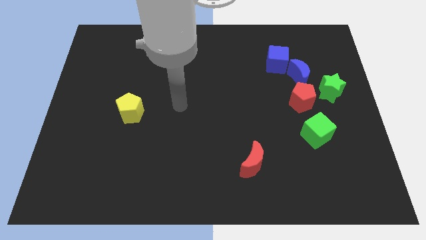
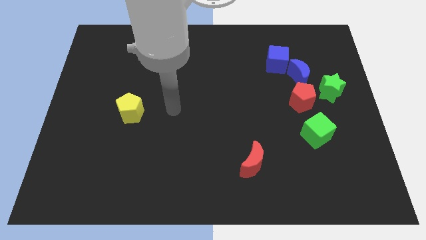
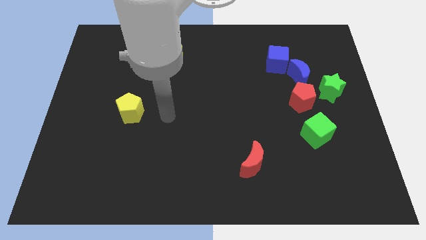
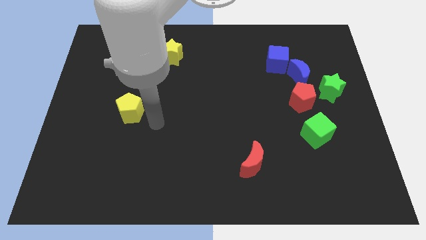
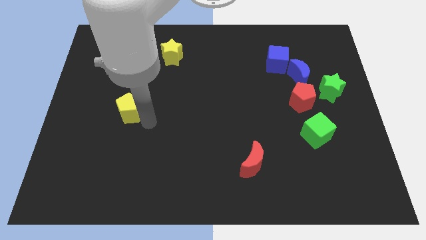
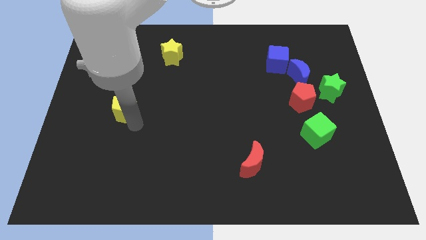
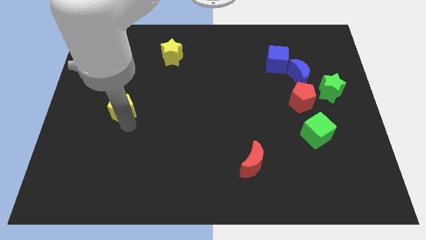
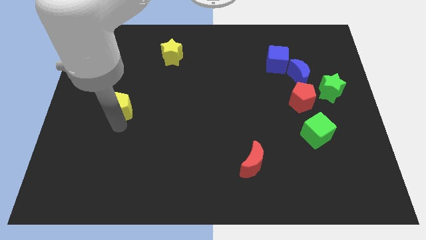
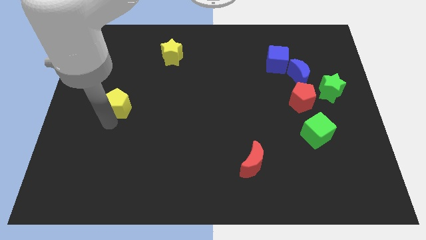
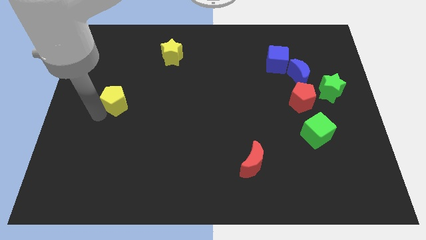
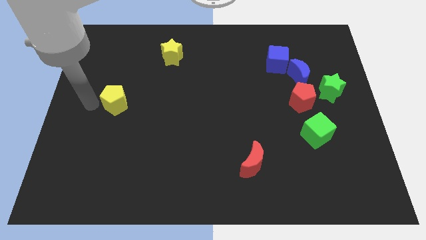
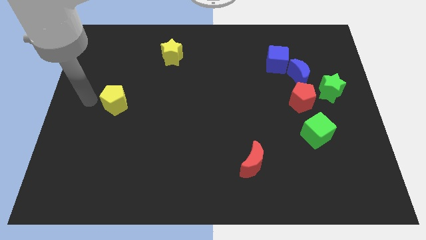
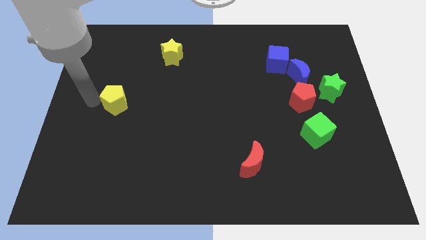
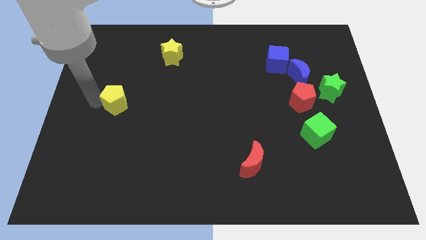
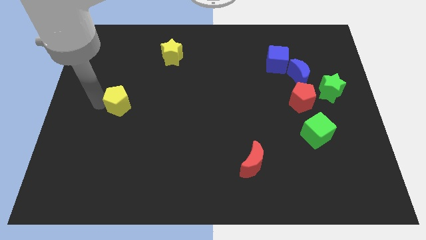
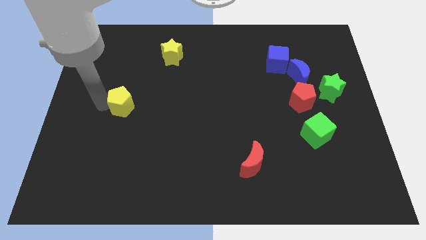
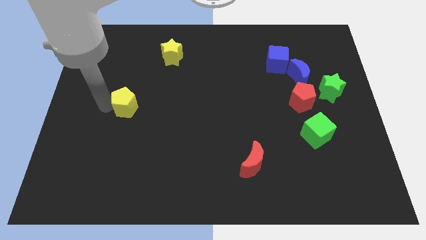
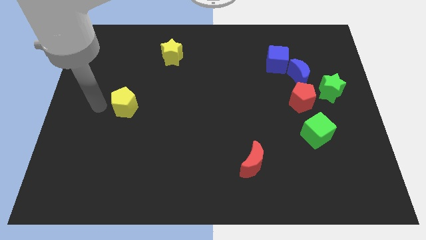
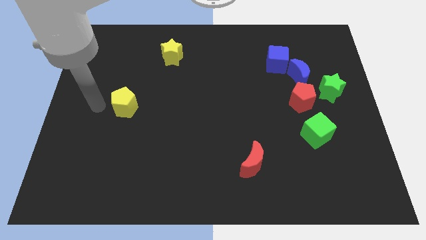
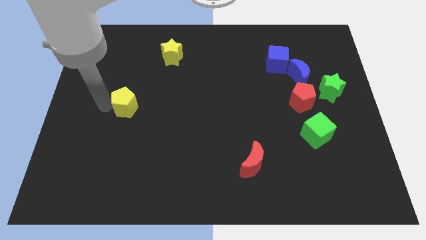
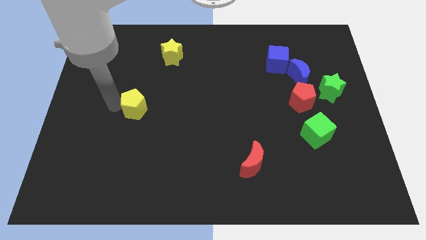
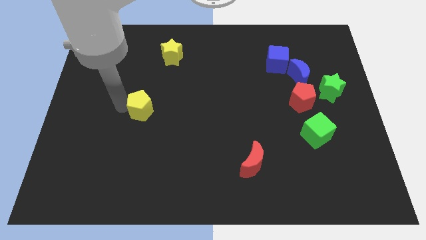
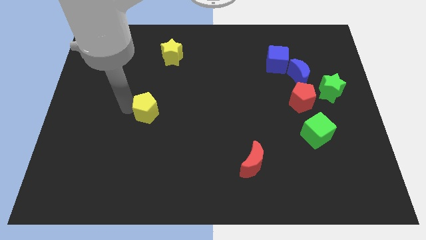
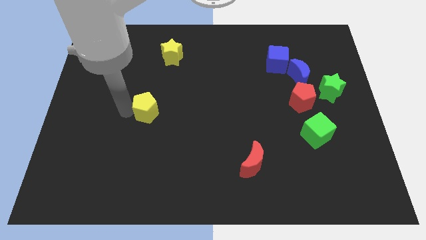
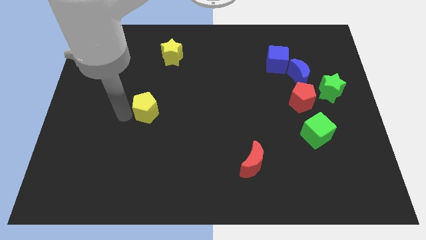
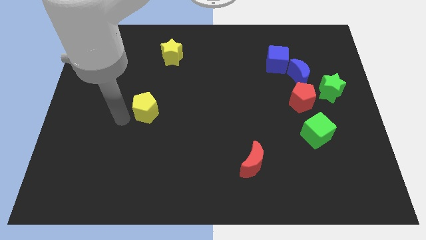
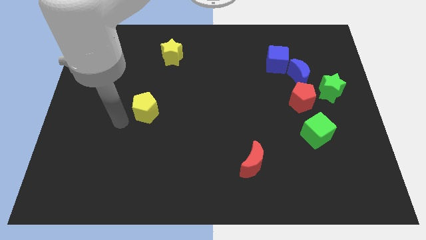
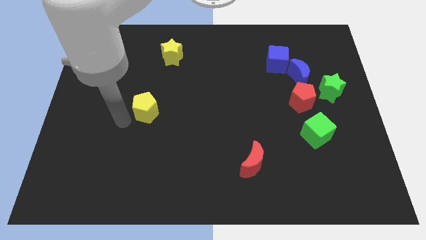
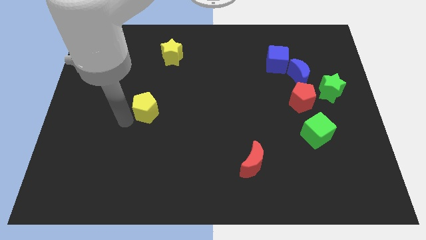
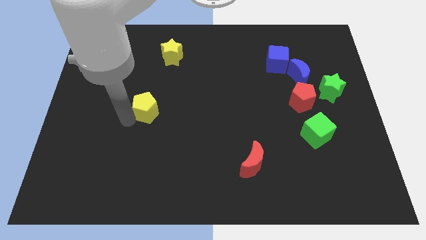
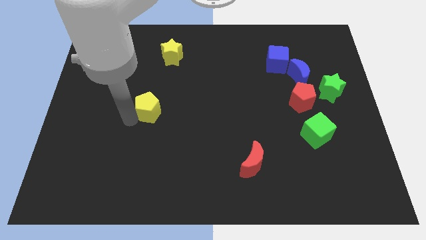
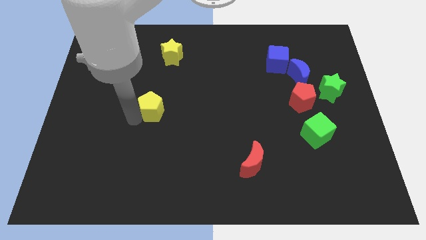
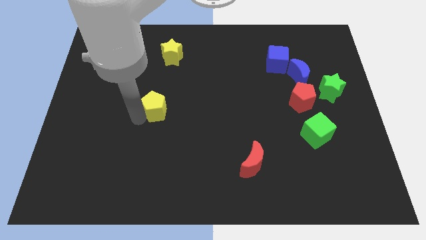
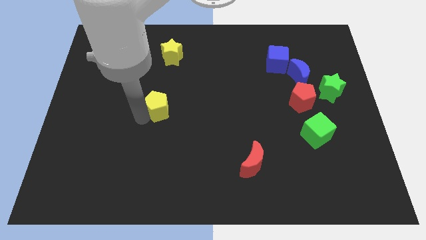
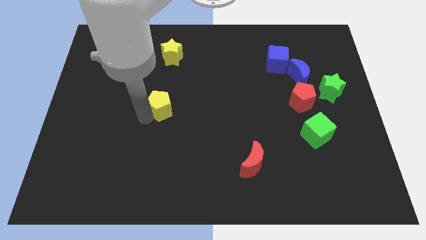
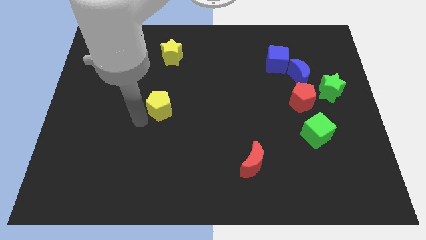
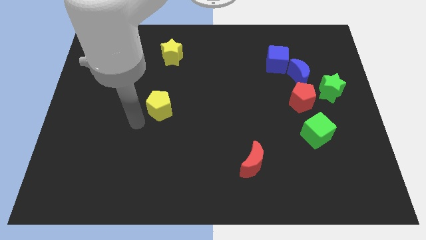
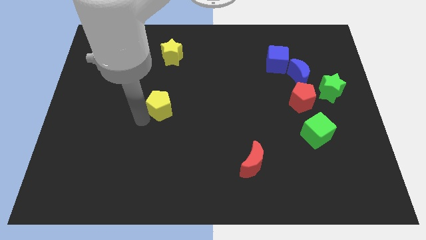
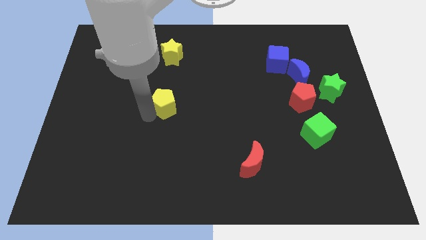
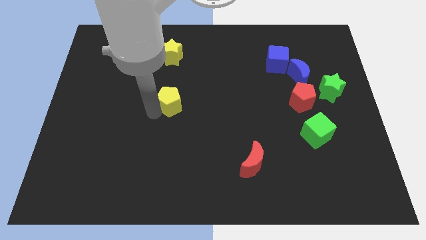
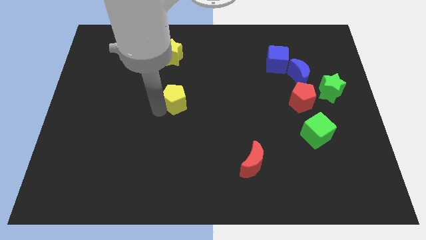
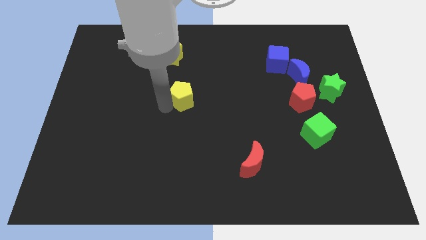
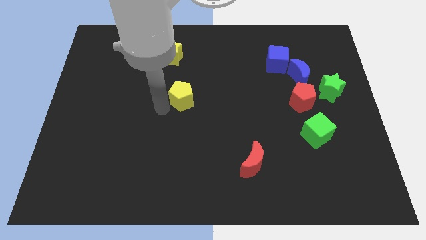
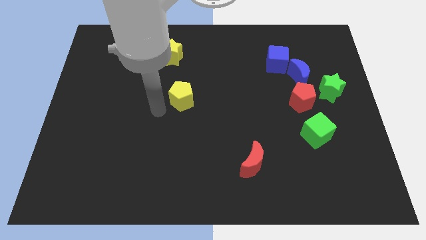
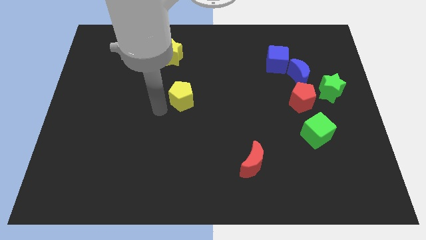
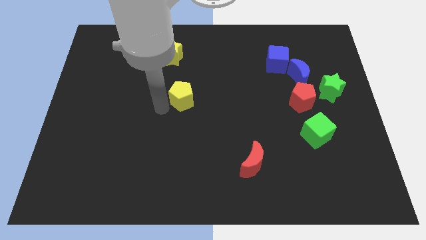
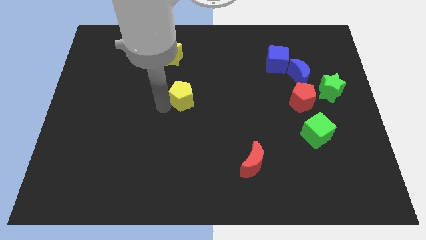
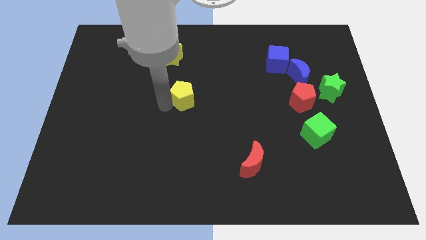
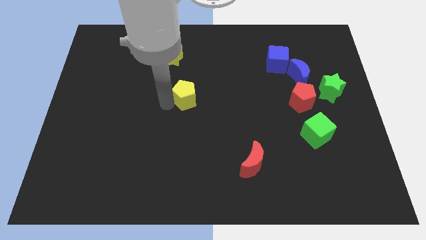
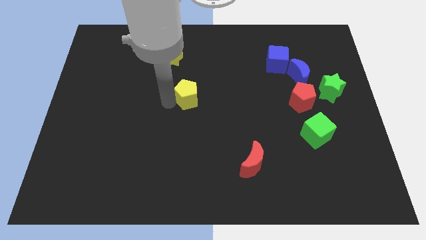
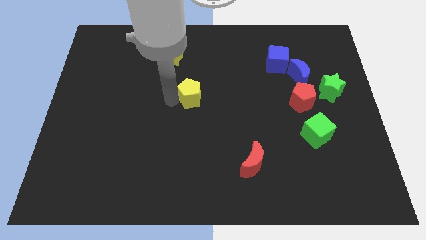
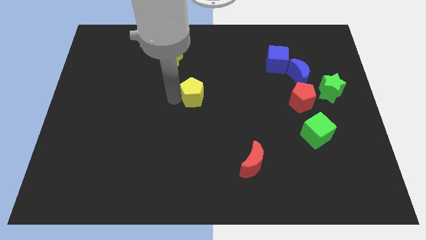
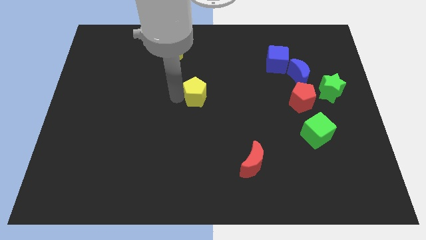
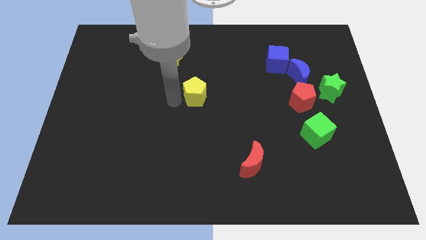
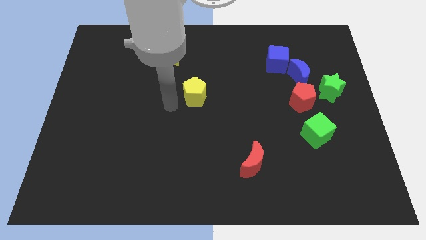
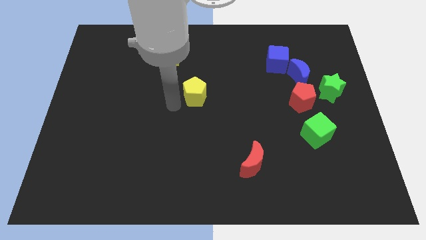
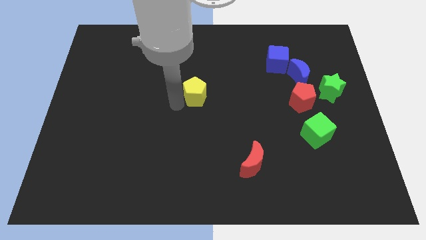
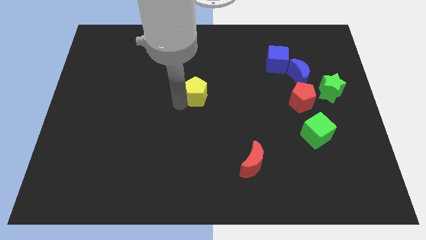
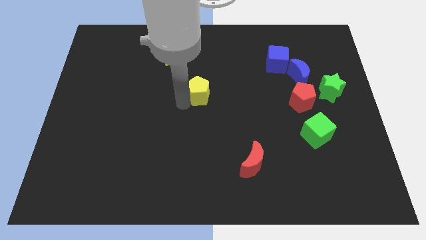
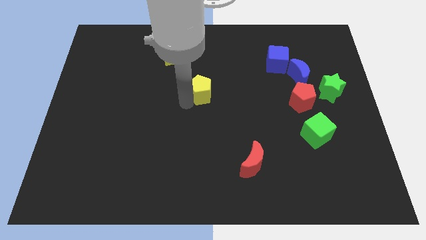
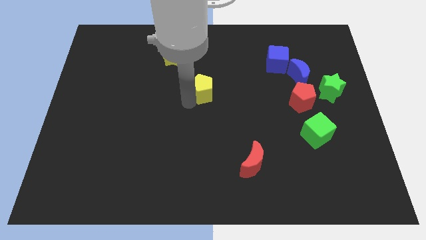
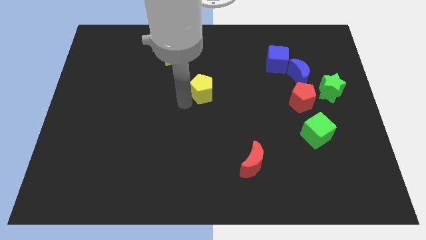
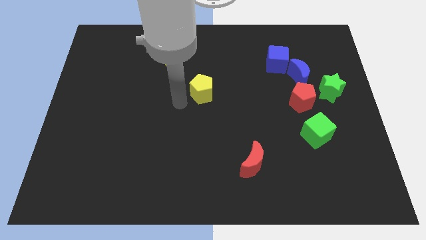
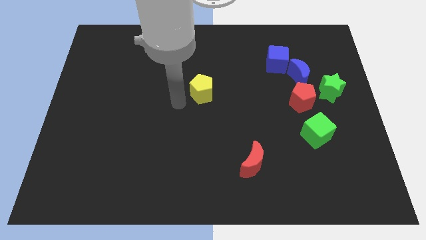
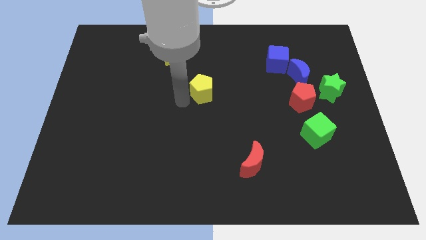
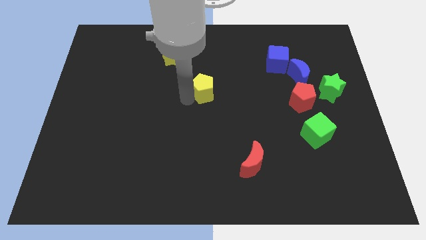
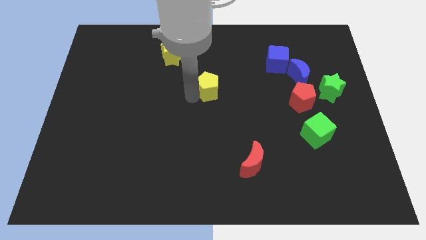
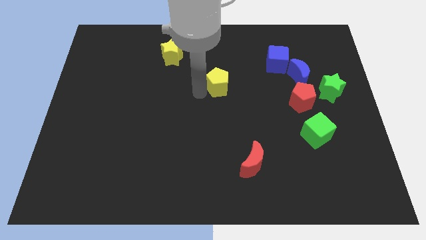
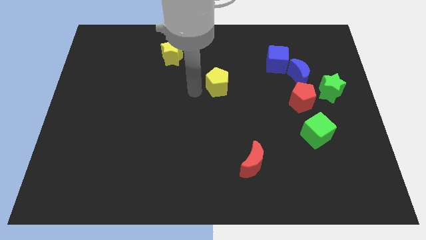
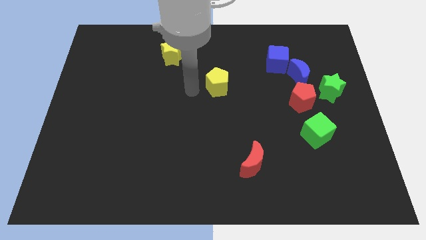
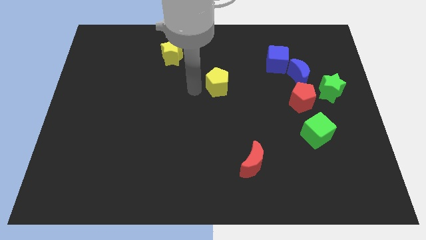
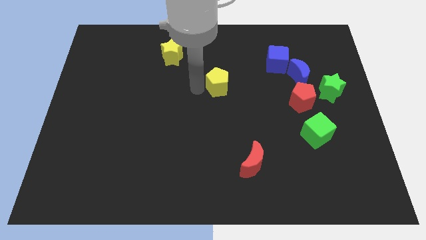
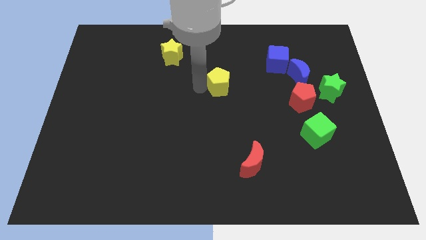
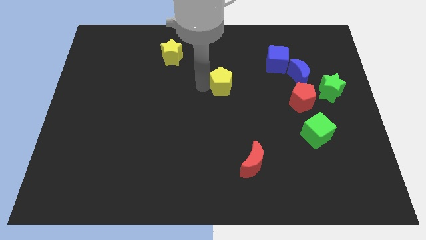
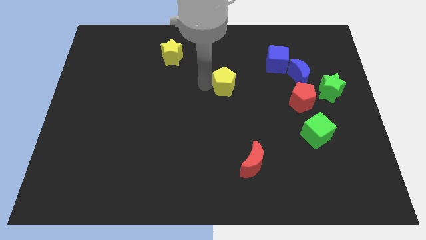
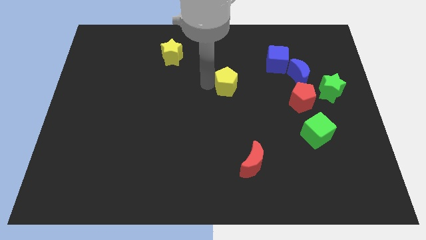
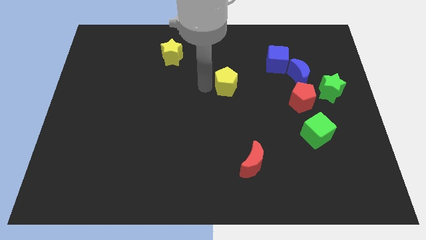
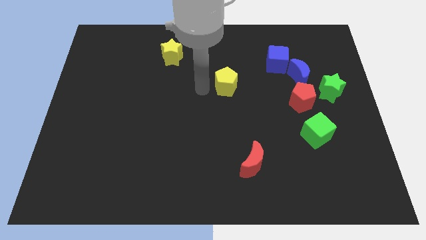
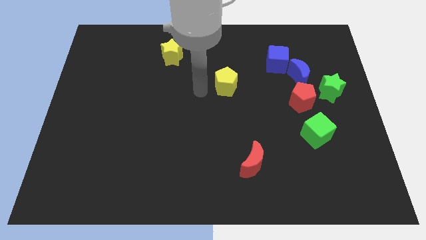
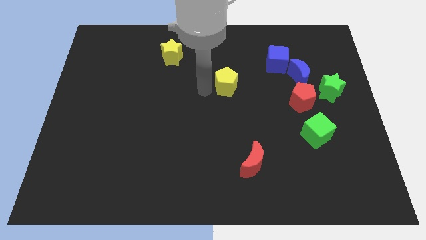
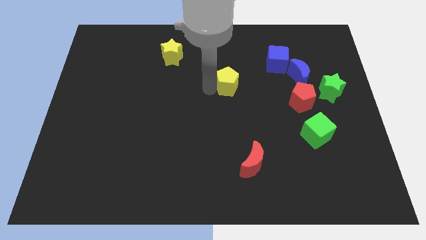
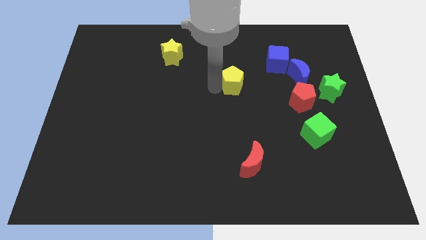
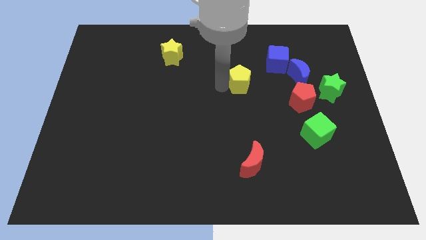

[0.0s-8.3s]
slide the yellow pentagon to the bottom left side of the blue cube
